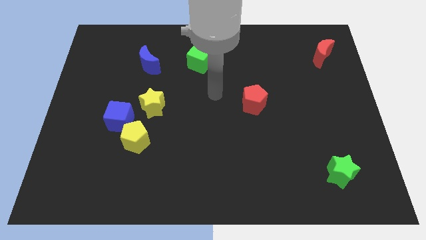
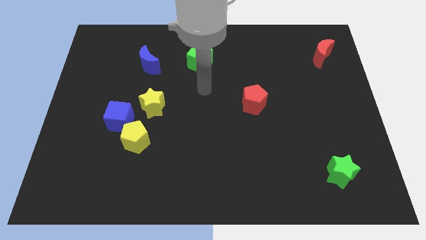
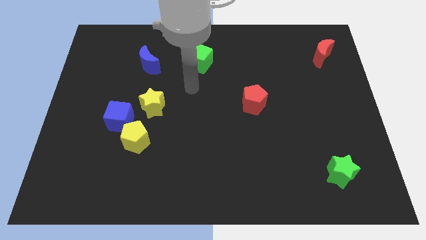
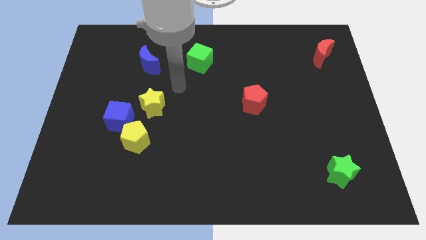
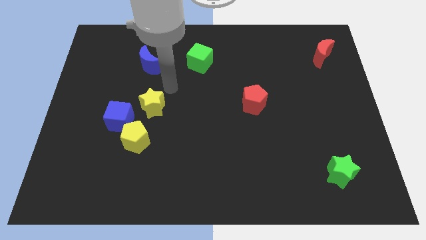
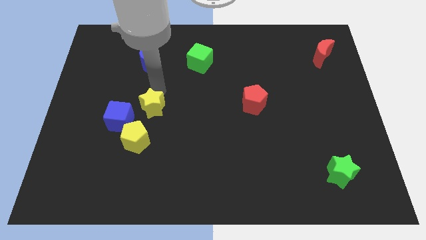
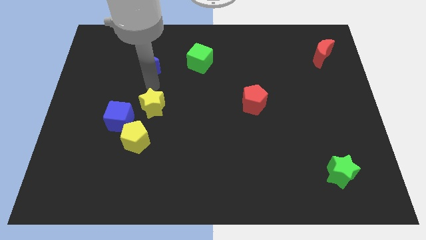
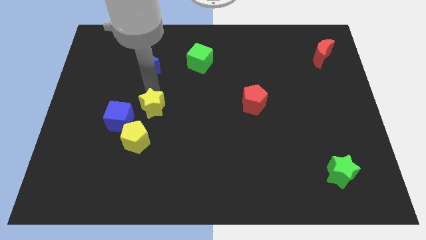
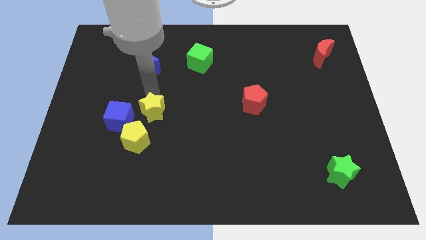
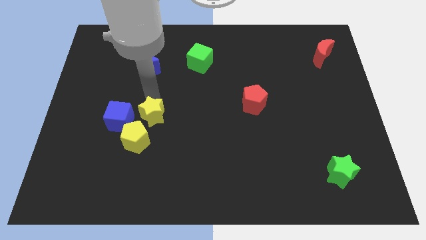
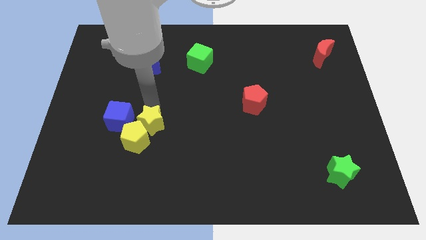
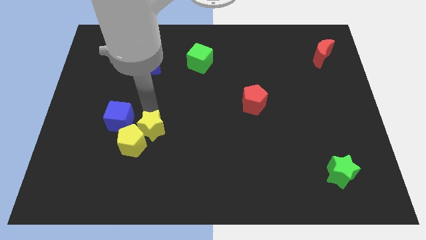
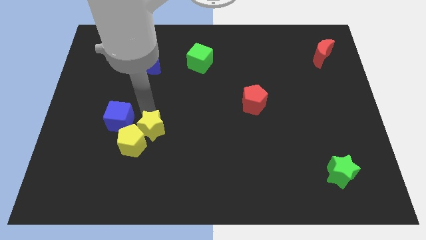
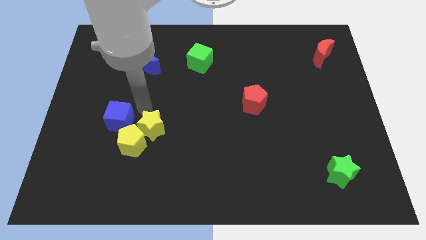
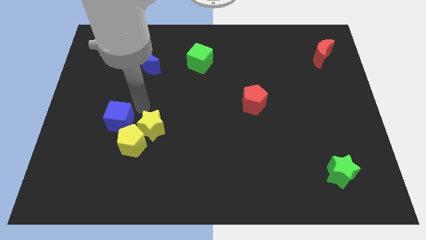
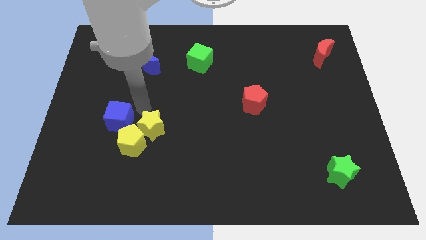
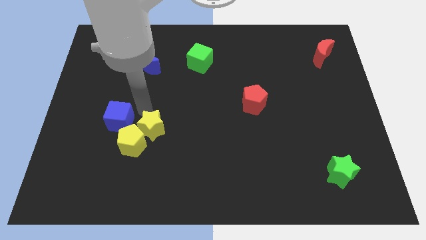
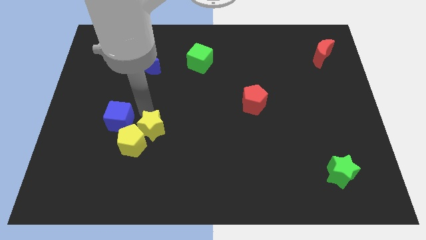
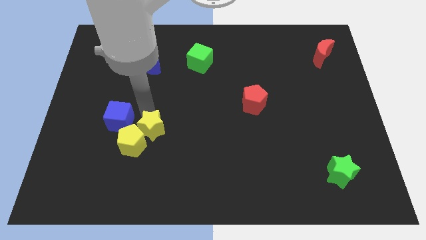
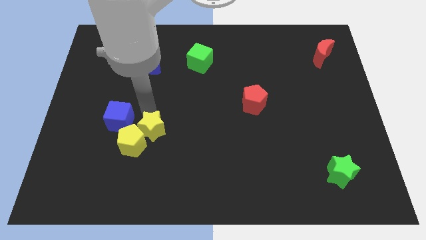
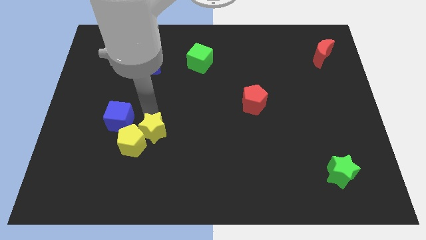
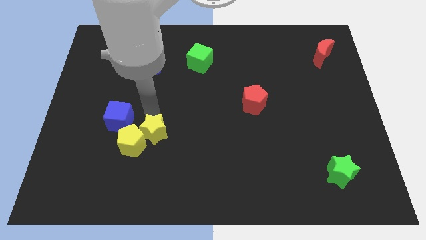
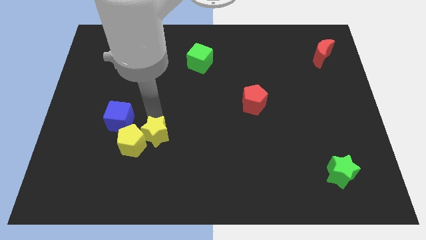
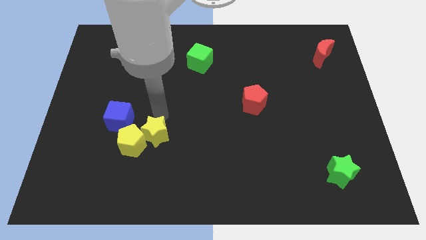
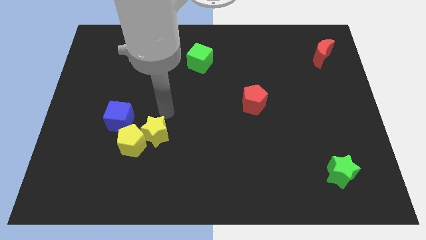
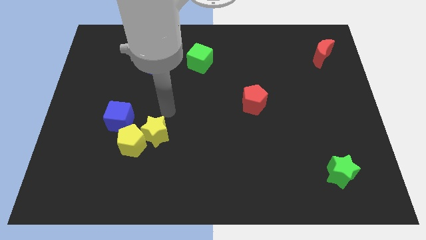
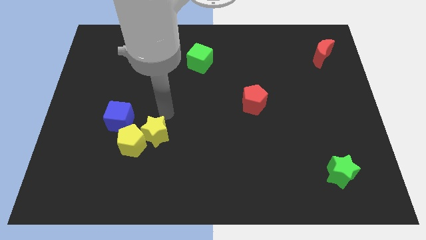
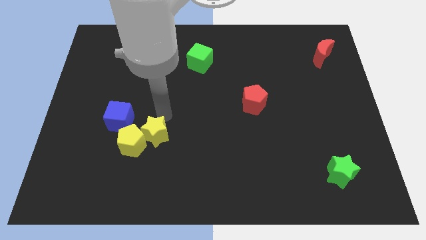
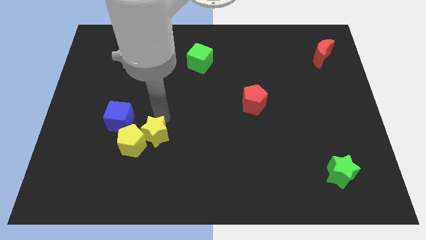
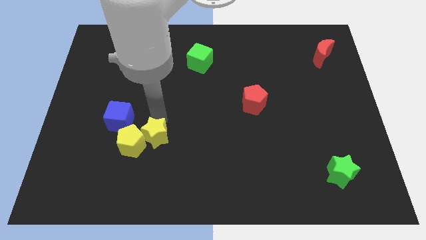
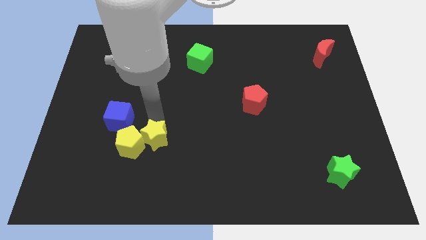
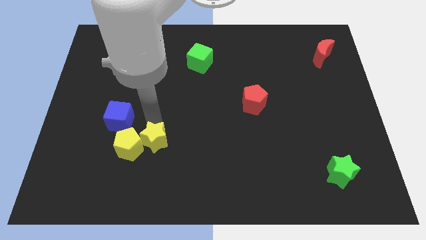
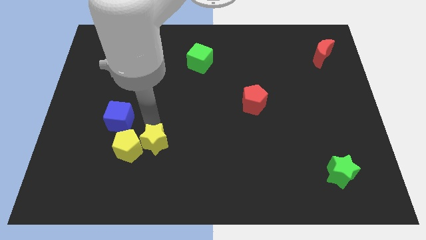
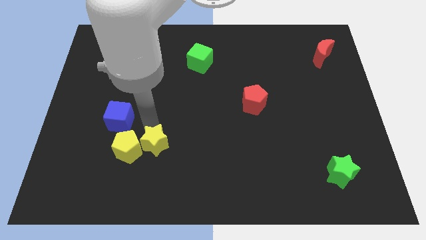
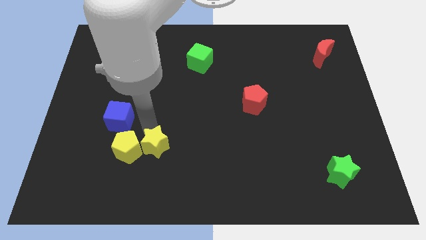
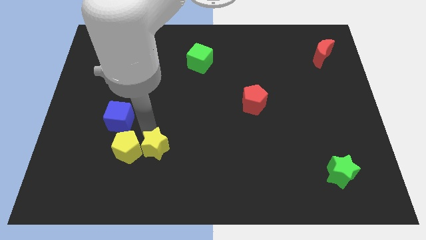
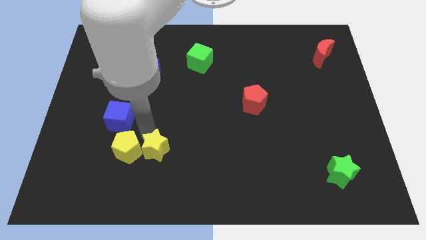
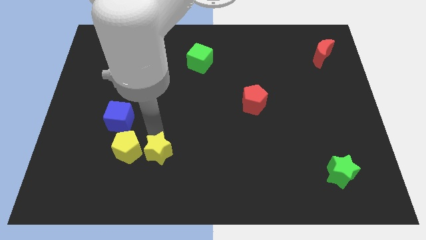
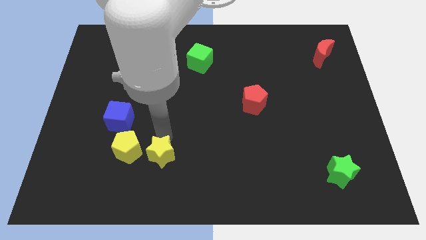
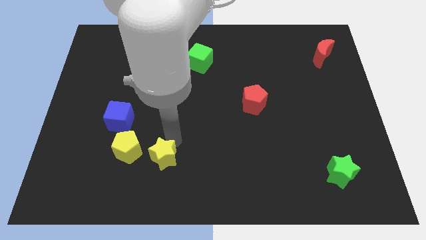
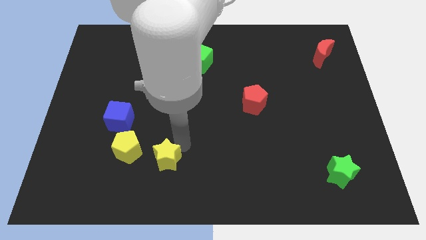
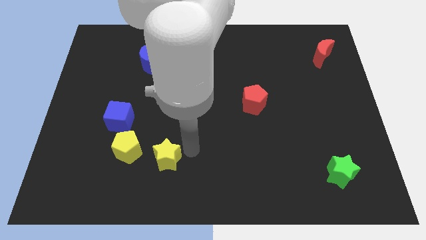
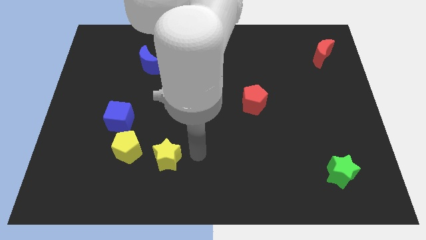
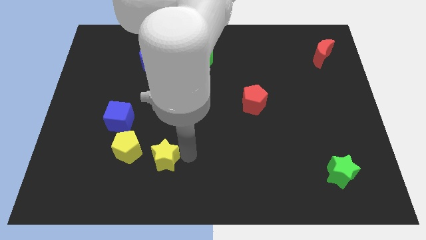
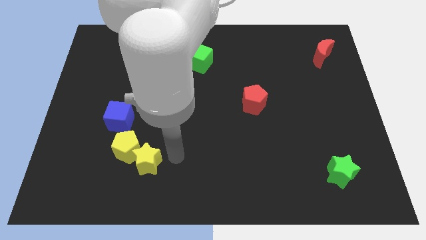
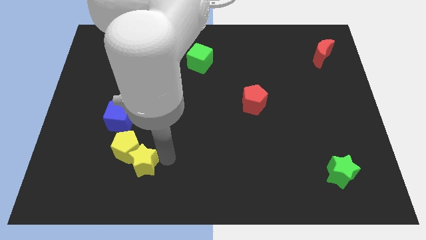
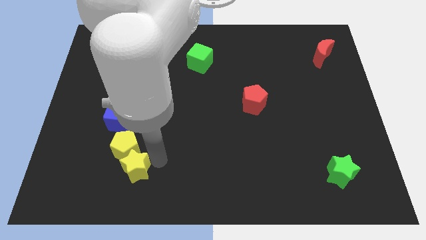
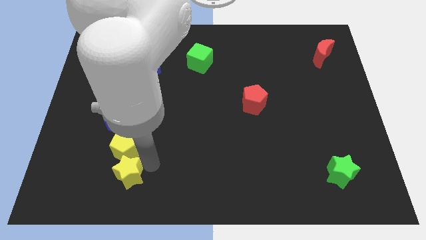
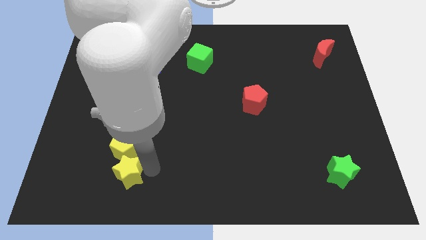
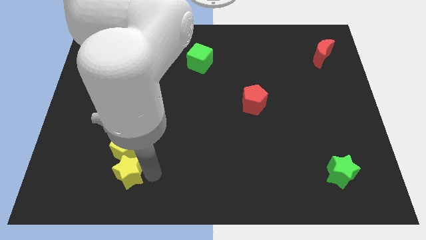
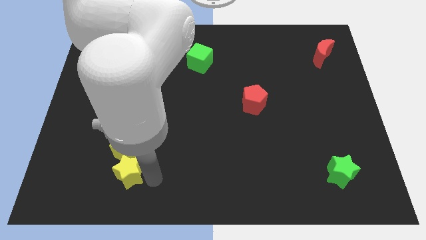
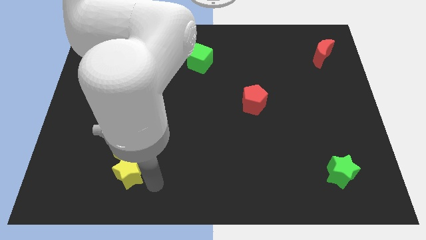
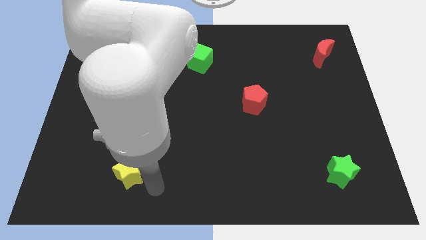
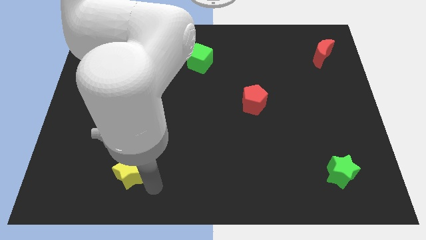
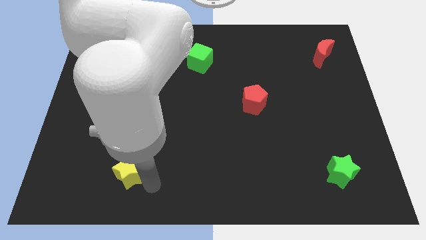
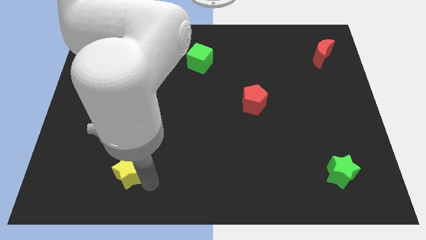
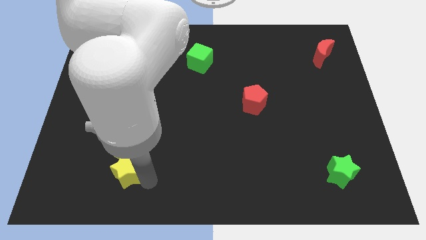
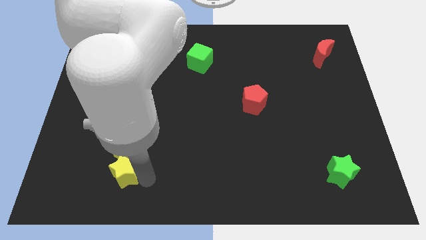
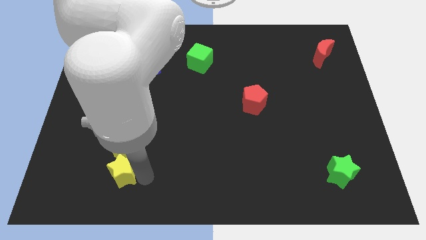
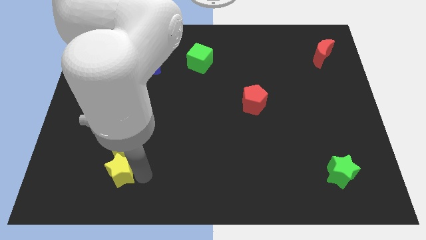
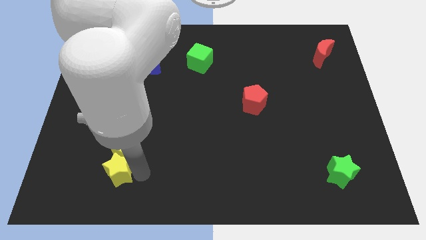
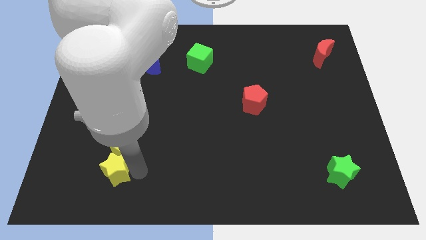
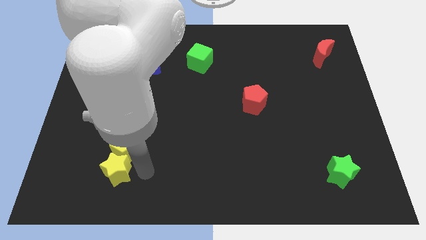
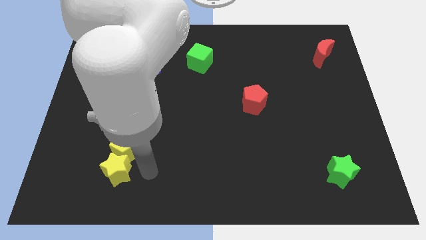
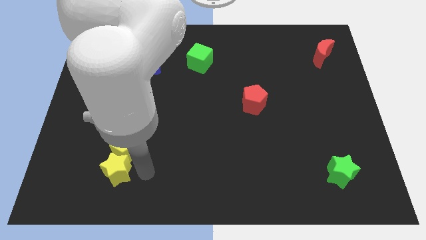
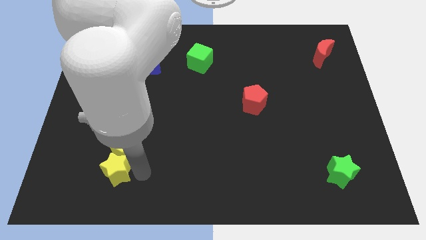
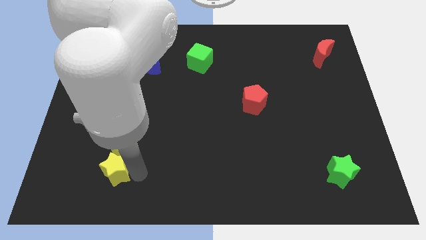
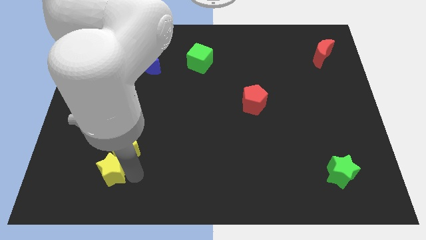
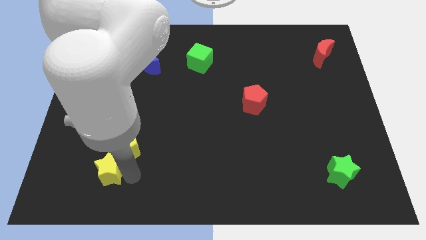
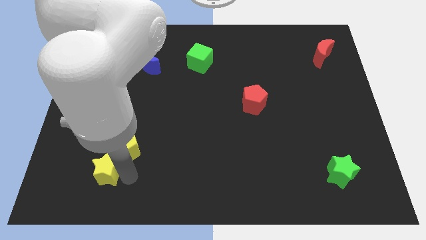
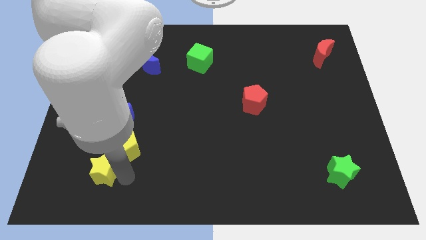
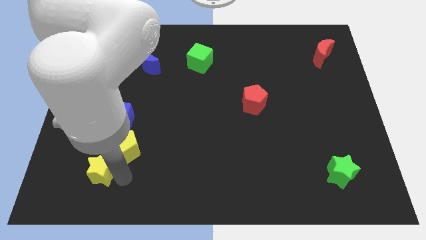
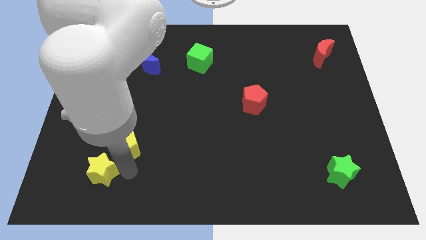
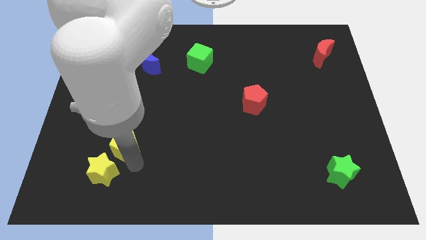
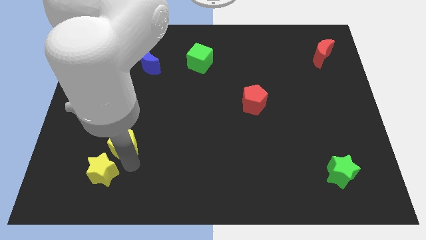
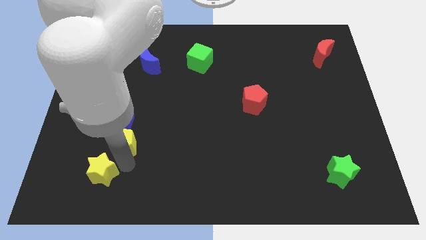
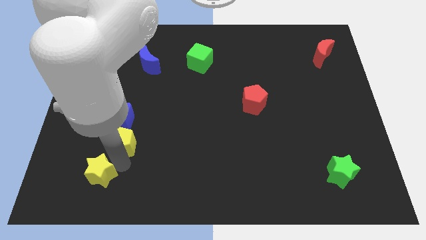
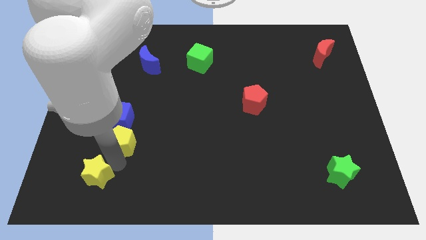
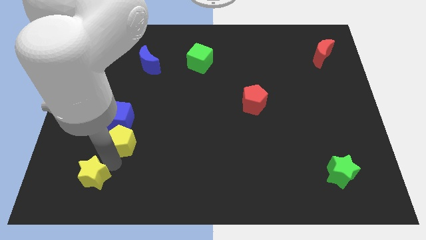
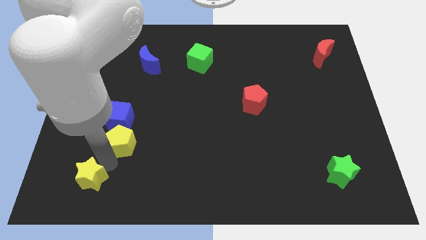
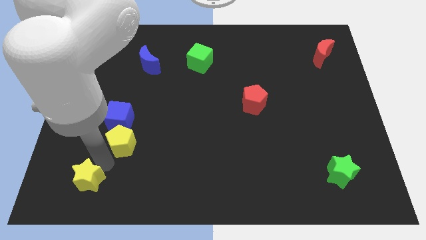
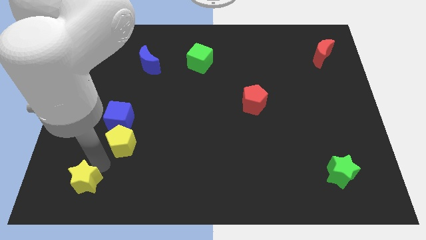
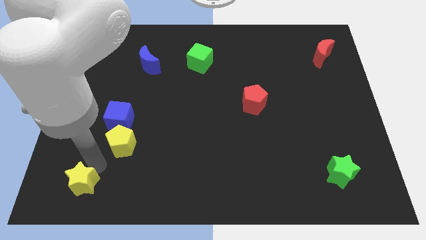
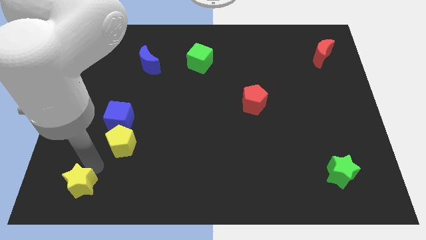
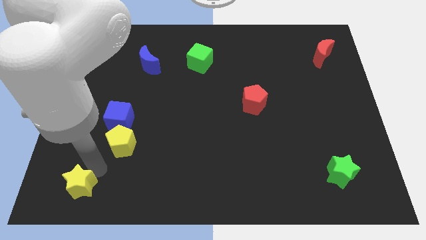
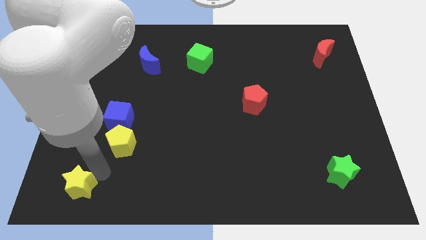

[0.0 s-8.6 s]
put the yellow star to the bottom left
